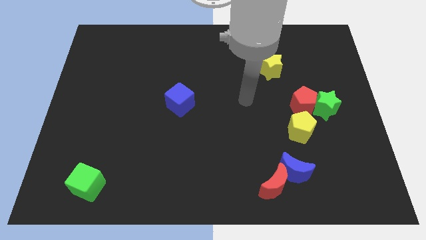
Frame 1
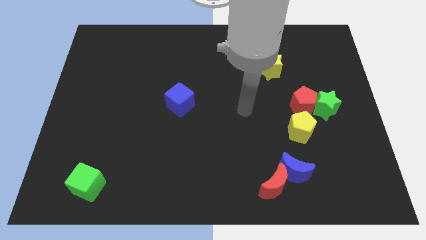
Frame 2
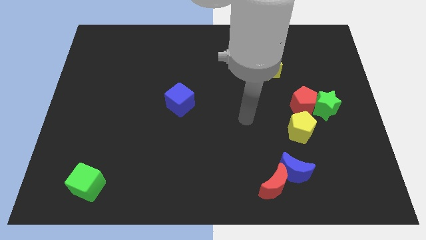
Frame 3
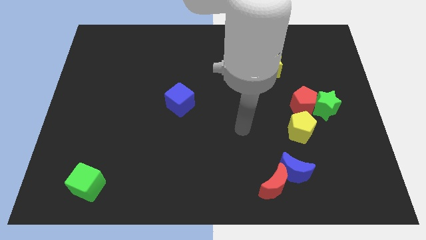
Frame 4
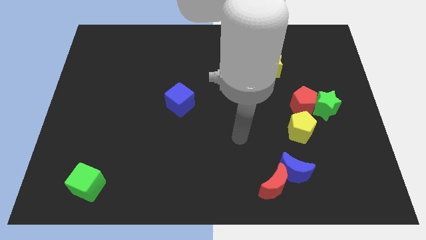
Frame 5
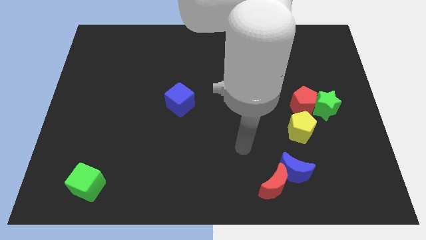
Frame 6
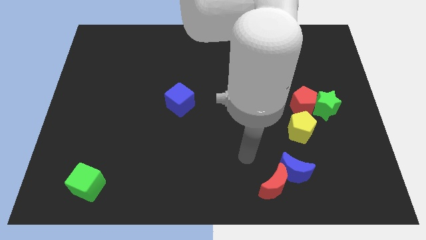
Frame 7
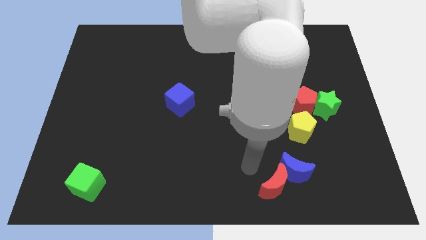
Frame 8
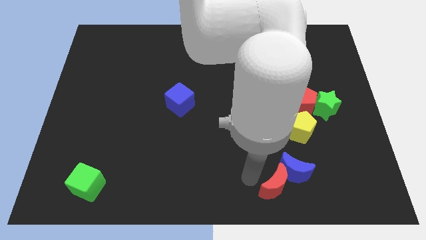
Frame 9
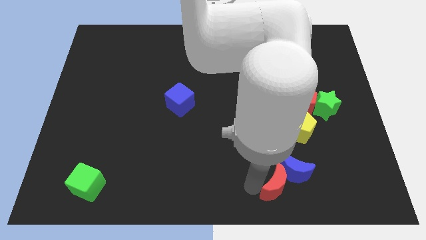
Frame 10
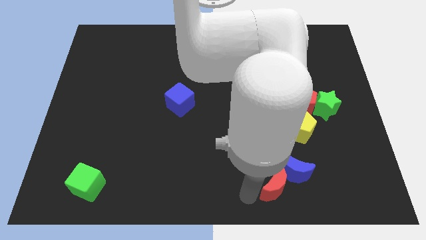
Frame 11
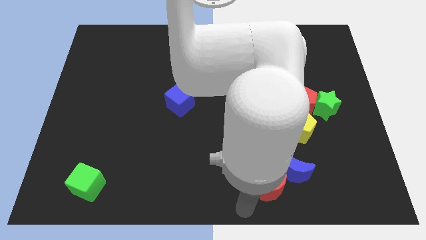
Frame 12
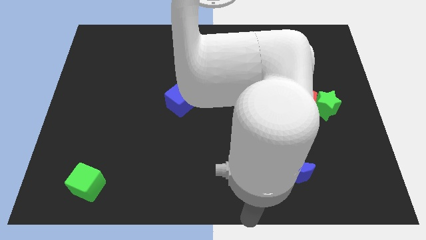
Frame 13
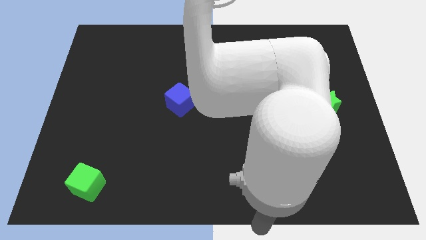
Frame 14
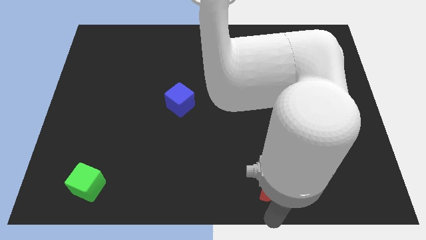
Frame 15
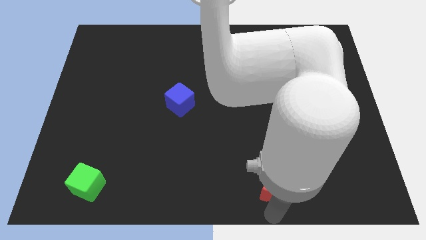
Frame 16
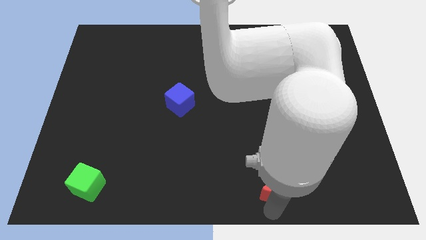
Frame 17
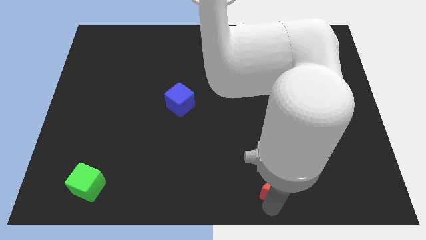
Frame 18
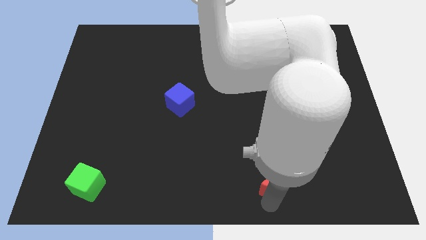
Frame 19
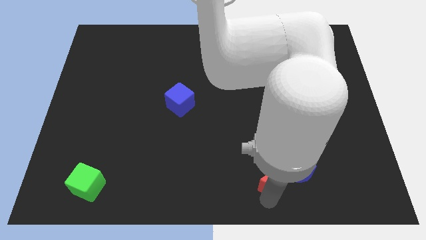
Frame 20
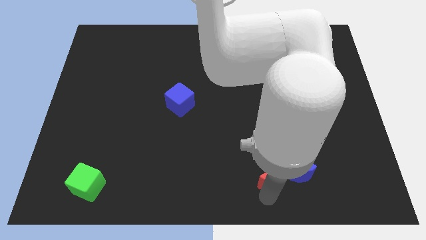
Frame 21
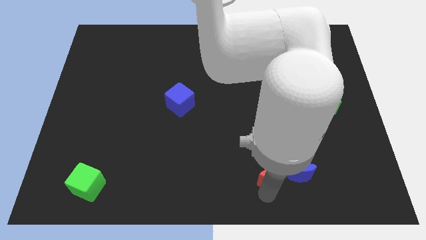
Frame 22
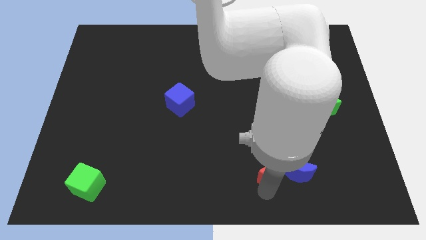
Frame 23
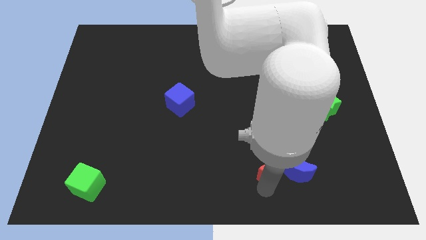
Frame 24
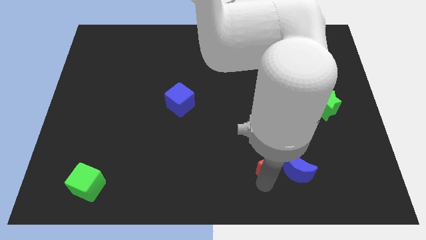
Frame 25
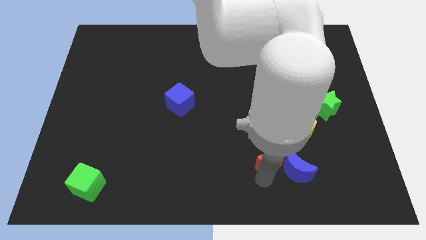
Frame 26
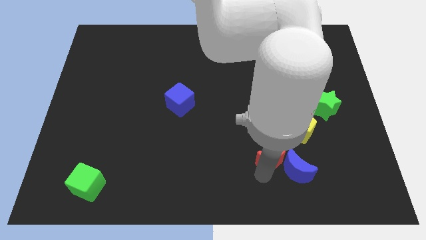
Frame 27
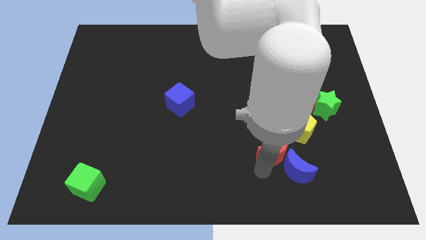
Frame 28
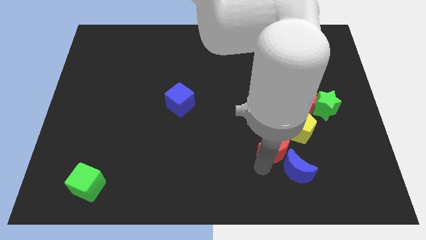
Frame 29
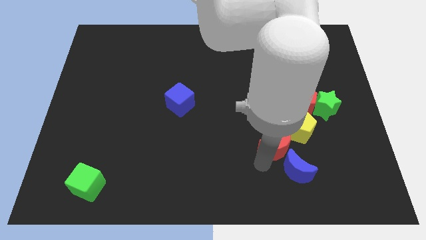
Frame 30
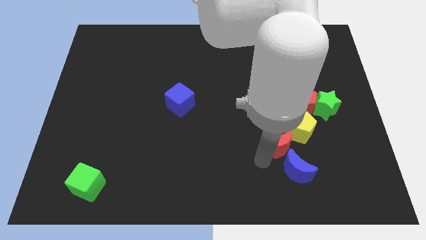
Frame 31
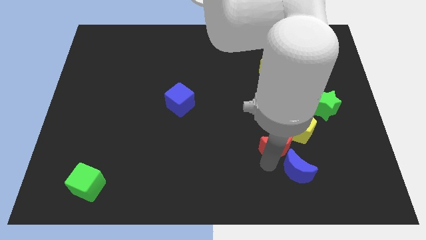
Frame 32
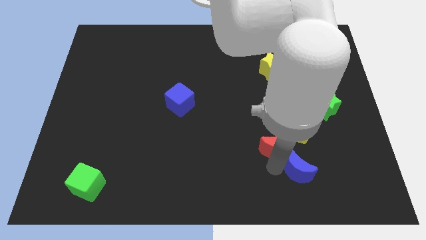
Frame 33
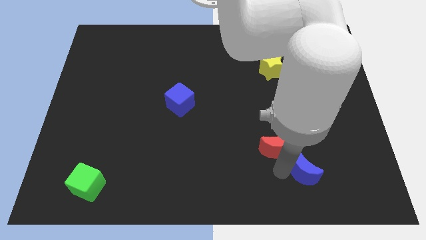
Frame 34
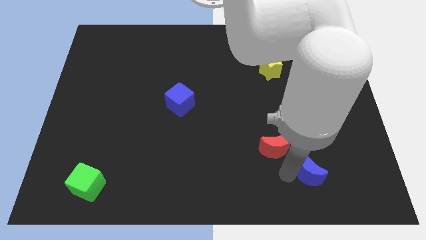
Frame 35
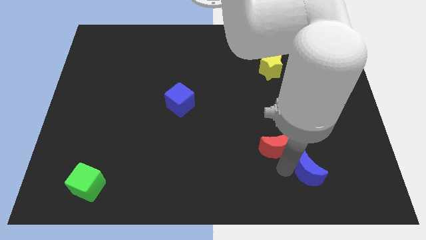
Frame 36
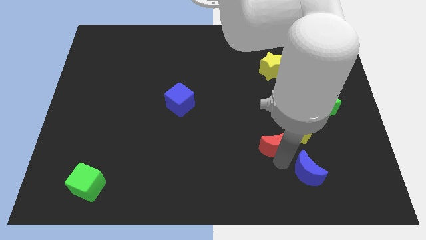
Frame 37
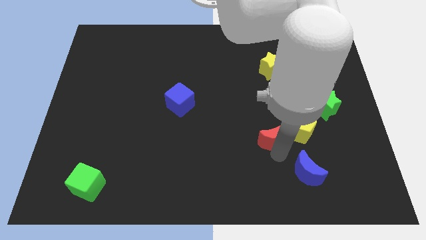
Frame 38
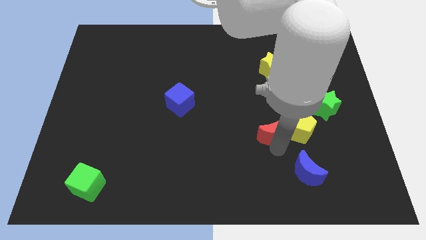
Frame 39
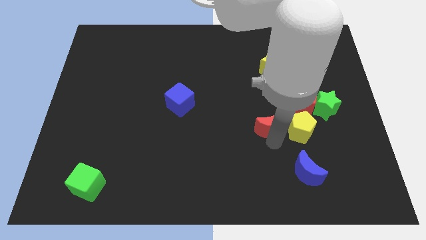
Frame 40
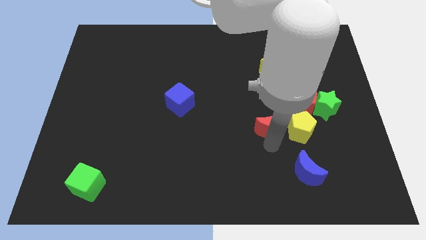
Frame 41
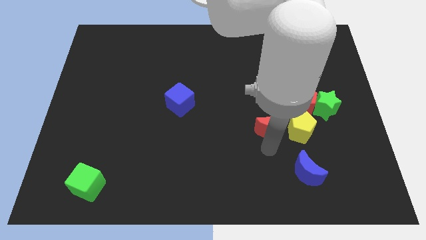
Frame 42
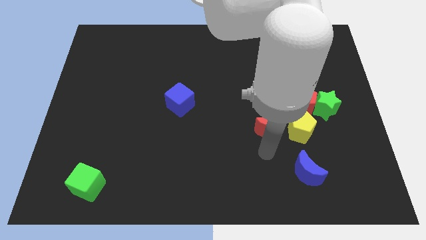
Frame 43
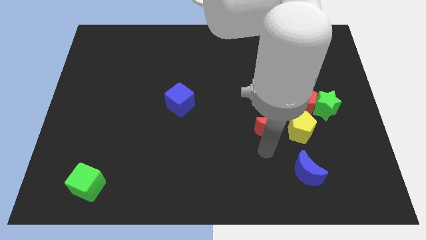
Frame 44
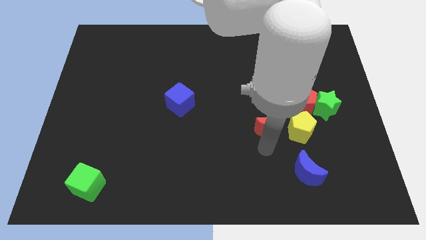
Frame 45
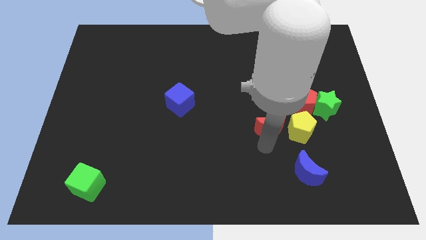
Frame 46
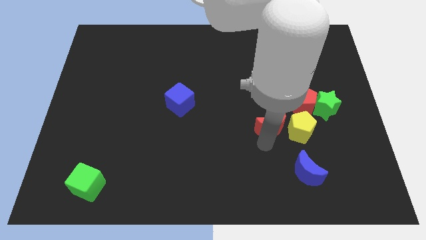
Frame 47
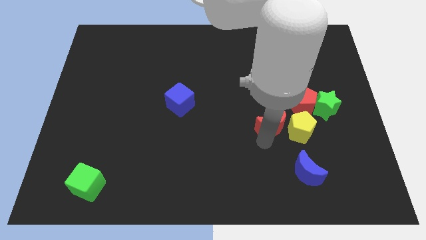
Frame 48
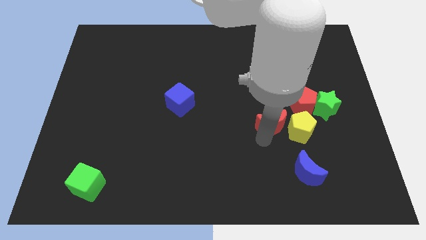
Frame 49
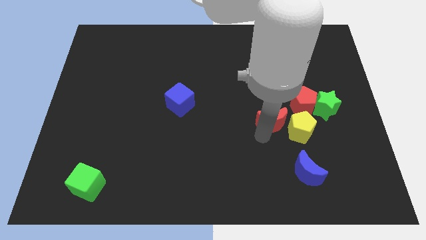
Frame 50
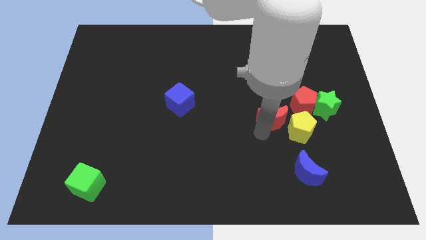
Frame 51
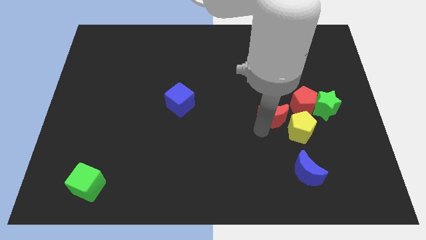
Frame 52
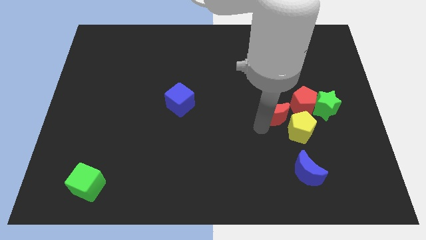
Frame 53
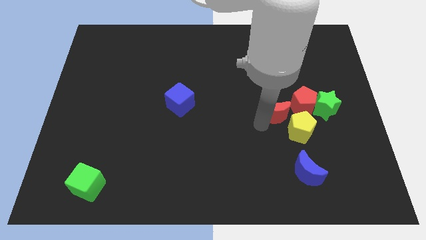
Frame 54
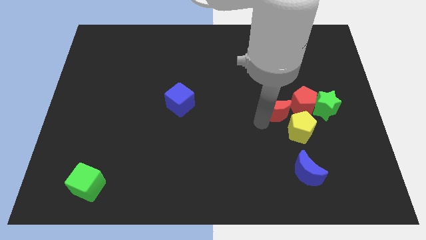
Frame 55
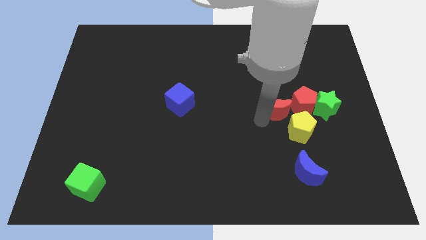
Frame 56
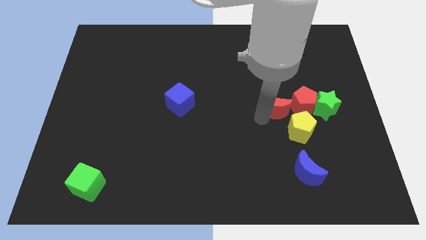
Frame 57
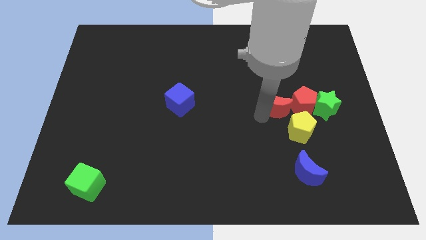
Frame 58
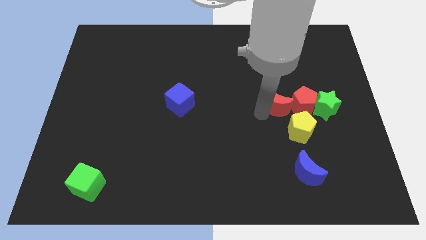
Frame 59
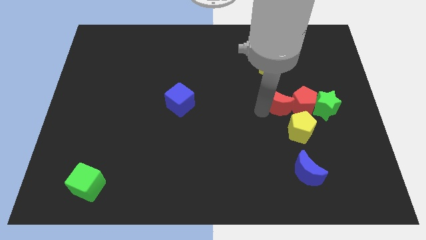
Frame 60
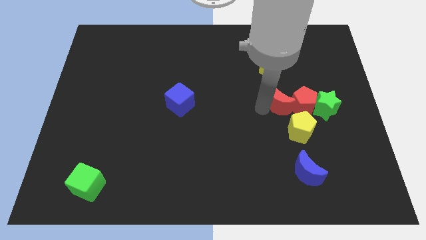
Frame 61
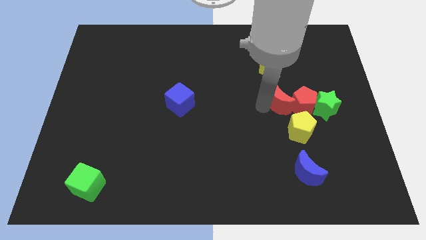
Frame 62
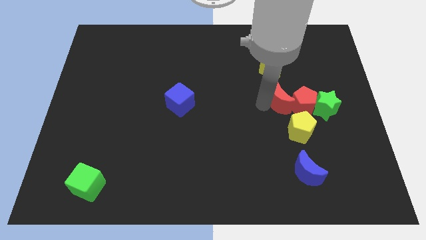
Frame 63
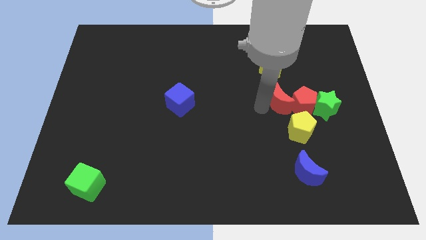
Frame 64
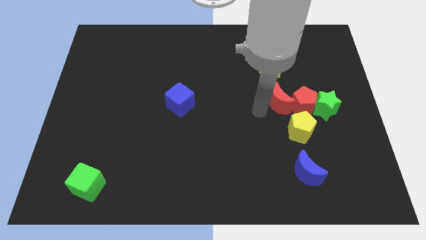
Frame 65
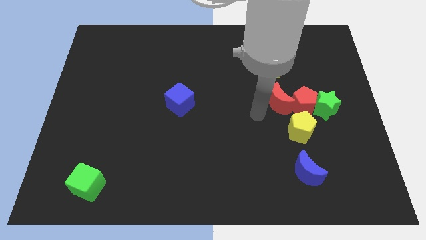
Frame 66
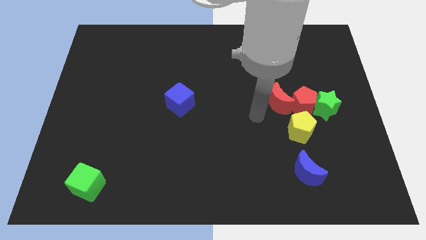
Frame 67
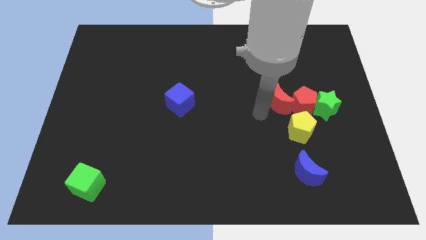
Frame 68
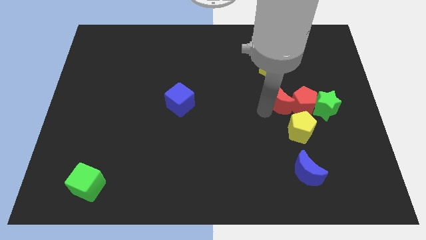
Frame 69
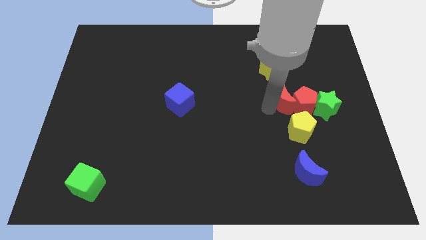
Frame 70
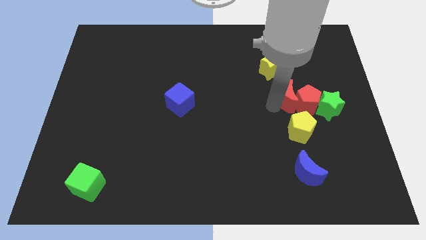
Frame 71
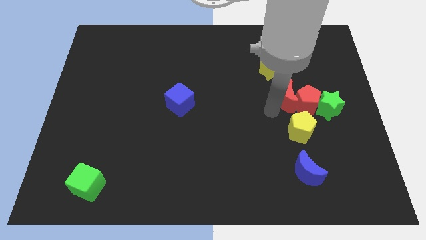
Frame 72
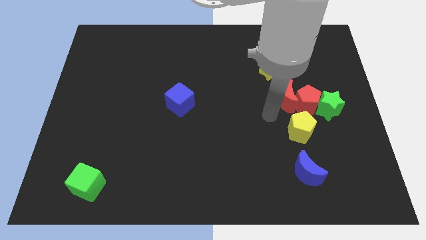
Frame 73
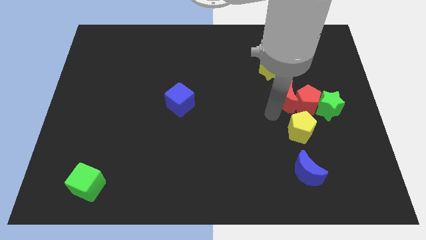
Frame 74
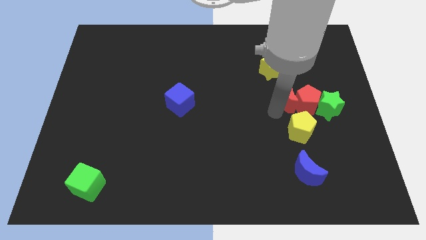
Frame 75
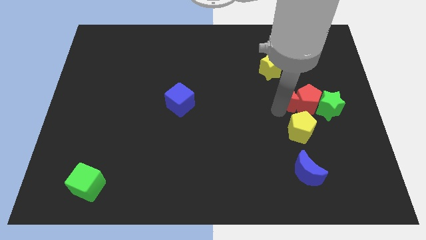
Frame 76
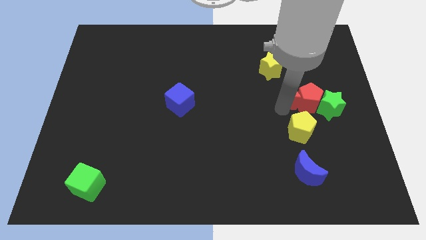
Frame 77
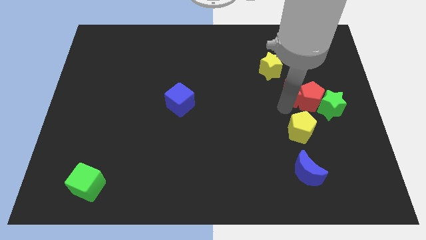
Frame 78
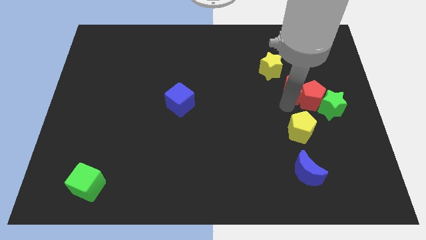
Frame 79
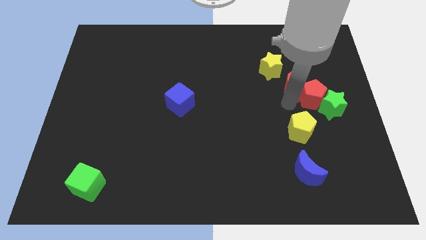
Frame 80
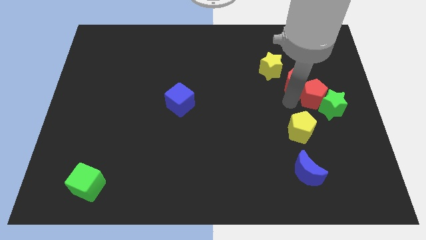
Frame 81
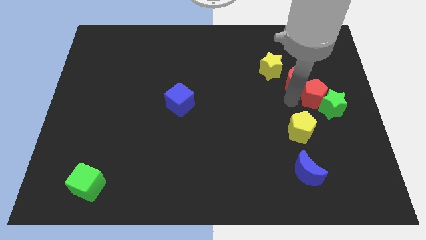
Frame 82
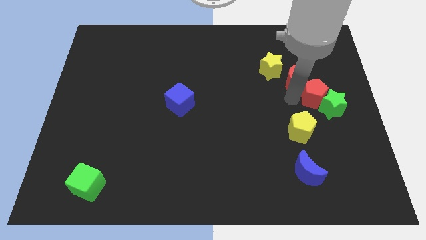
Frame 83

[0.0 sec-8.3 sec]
slide the red moon to the right of the yellow star
